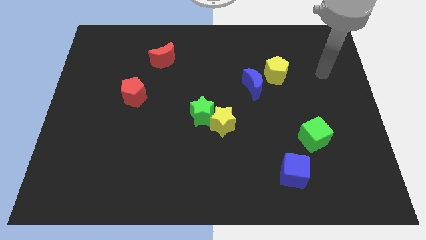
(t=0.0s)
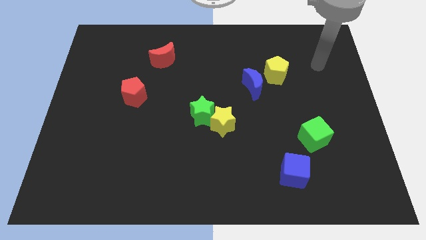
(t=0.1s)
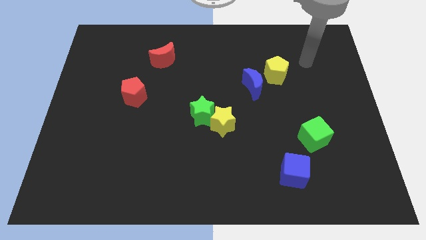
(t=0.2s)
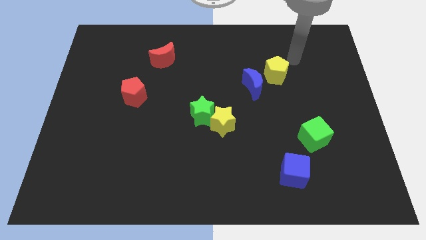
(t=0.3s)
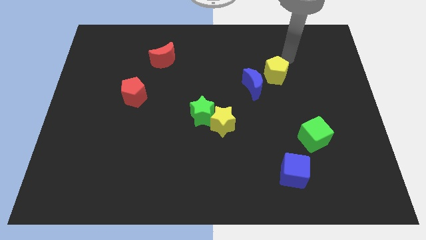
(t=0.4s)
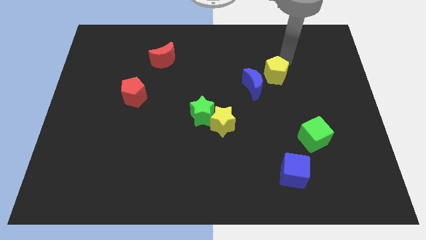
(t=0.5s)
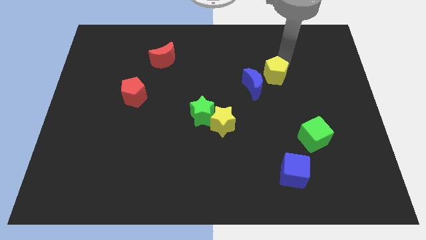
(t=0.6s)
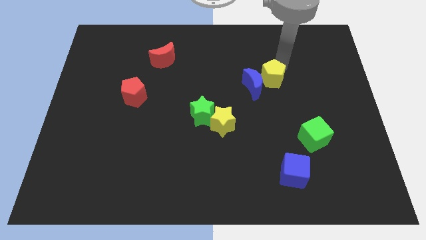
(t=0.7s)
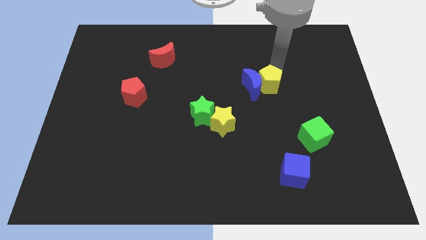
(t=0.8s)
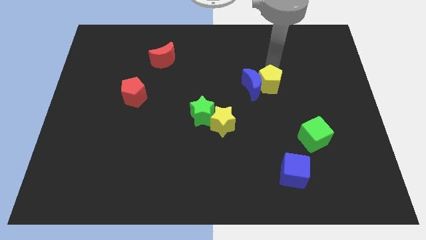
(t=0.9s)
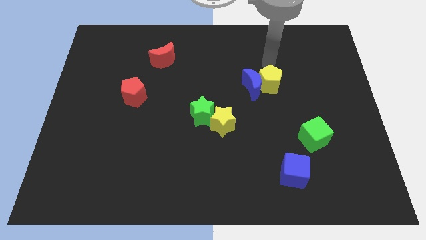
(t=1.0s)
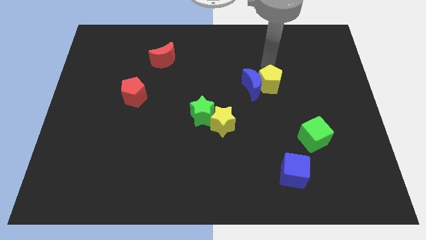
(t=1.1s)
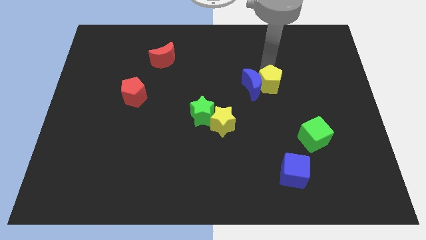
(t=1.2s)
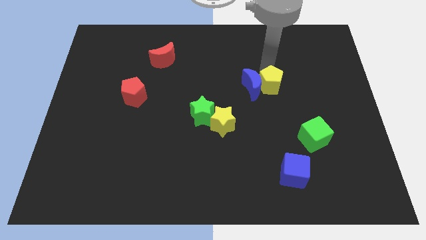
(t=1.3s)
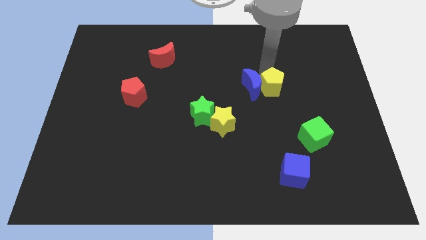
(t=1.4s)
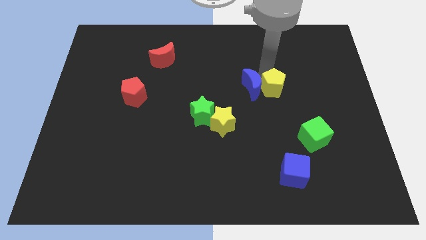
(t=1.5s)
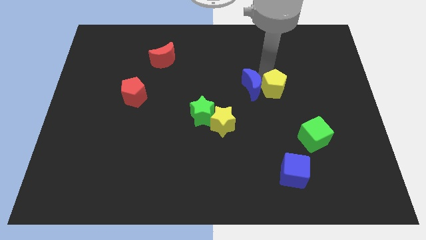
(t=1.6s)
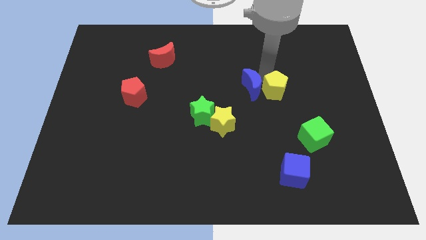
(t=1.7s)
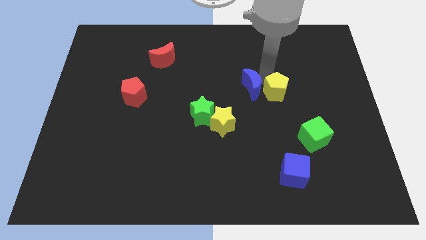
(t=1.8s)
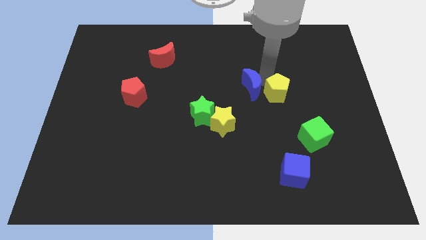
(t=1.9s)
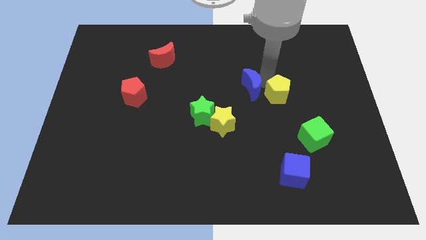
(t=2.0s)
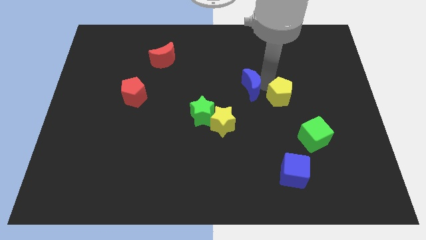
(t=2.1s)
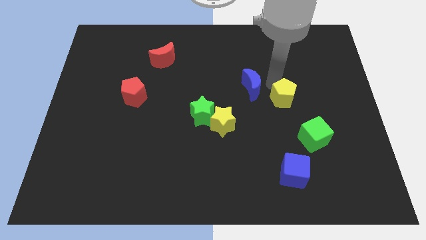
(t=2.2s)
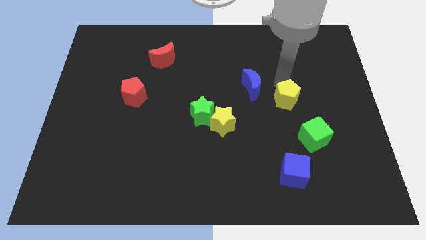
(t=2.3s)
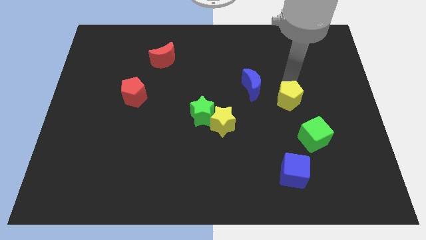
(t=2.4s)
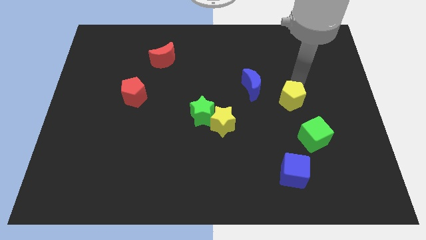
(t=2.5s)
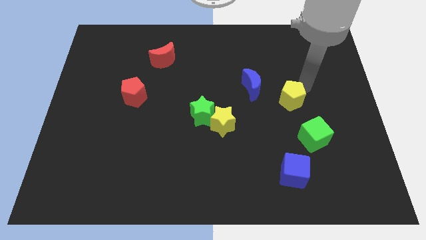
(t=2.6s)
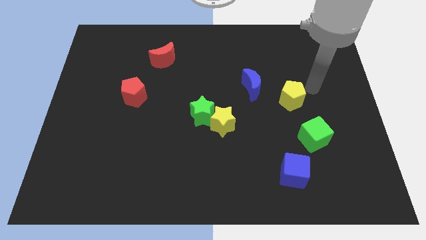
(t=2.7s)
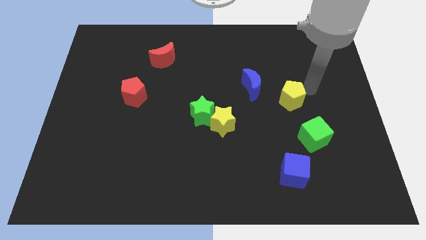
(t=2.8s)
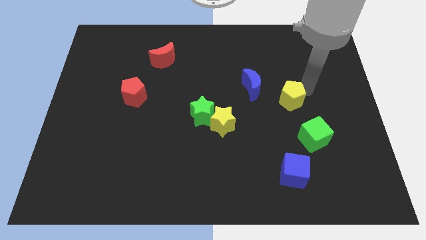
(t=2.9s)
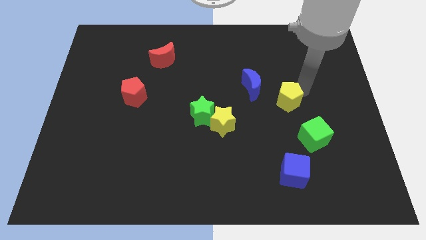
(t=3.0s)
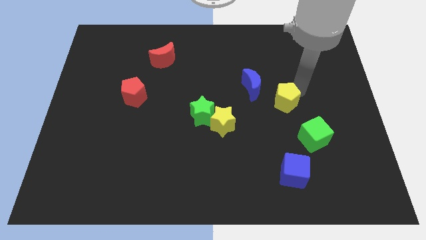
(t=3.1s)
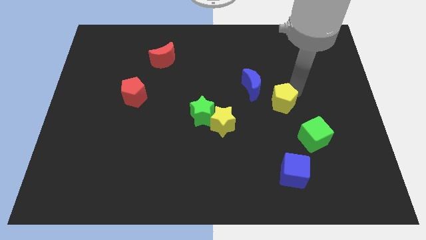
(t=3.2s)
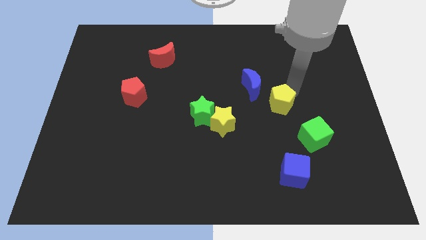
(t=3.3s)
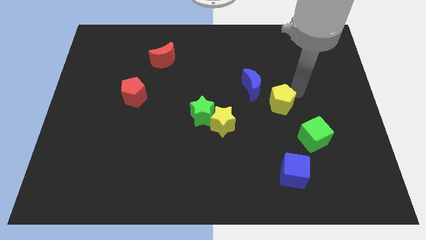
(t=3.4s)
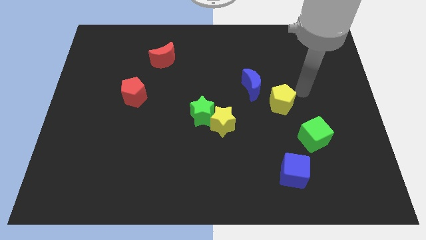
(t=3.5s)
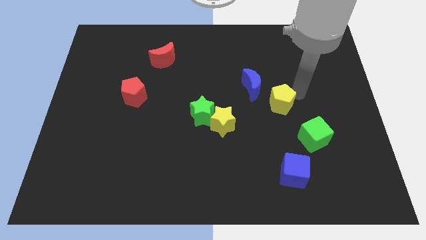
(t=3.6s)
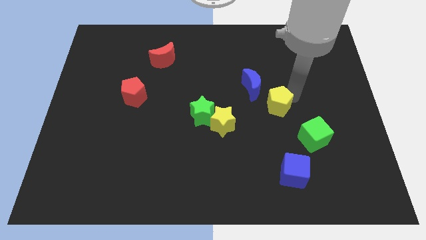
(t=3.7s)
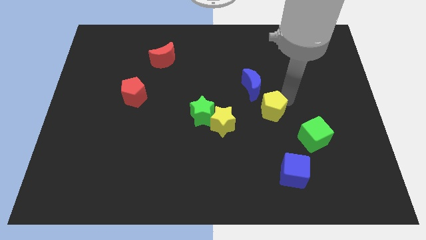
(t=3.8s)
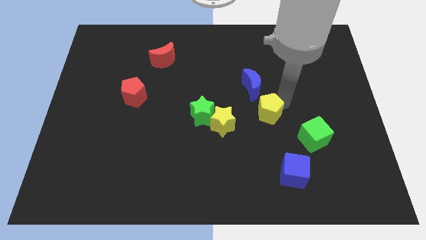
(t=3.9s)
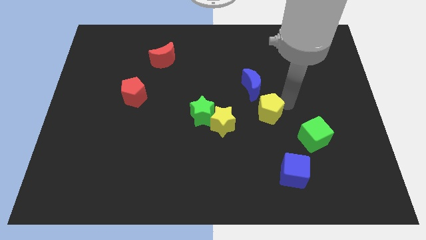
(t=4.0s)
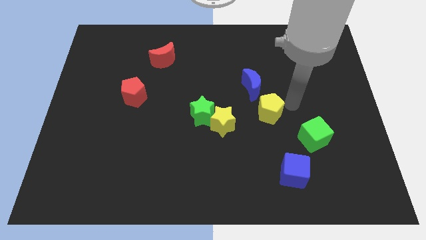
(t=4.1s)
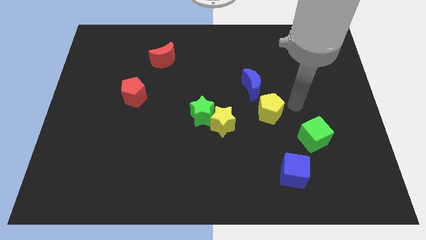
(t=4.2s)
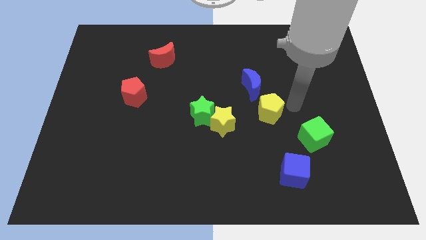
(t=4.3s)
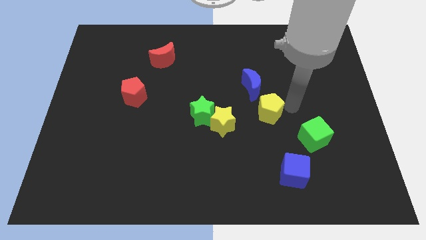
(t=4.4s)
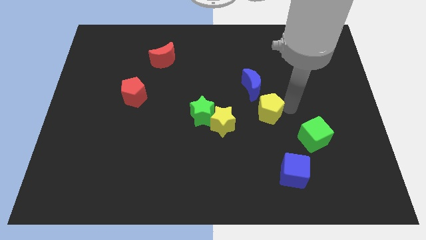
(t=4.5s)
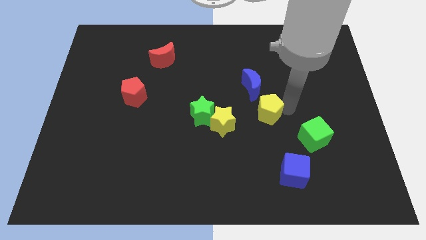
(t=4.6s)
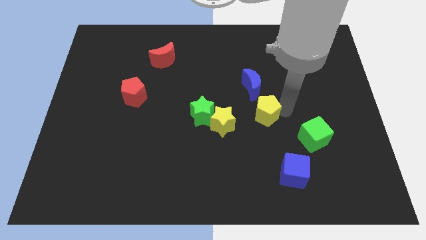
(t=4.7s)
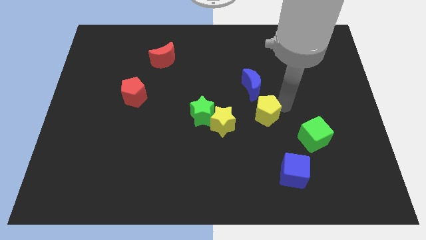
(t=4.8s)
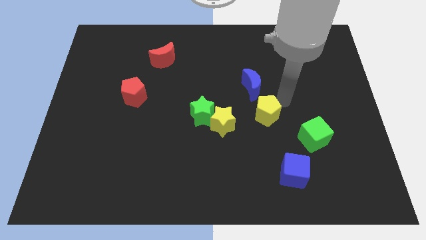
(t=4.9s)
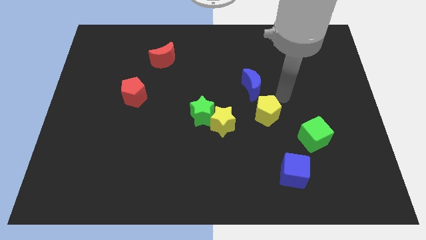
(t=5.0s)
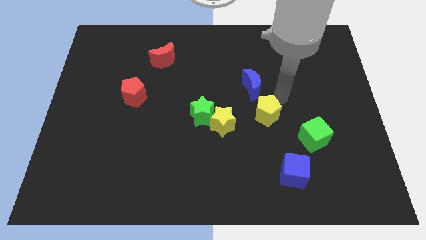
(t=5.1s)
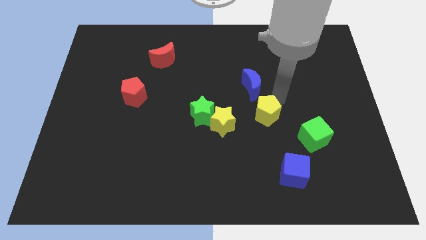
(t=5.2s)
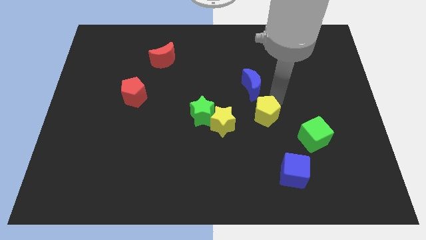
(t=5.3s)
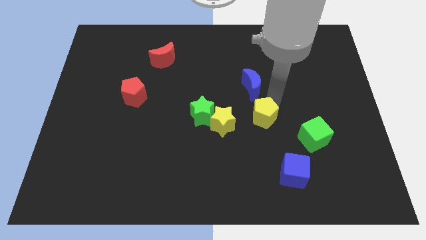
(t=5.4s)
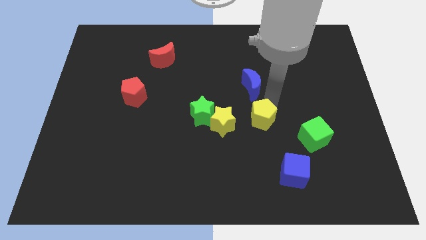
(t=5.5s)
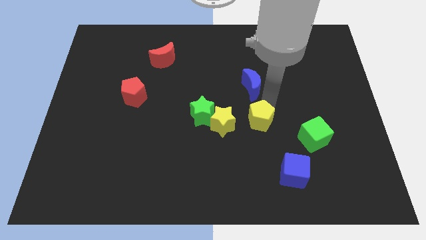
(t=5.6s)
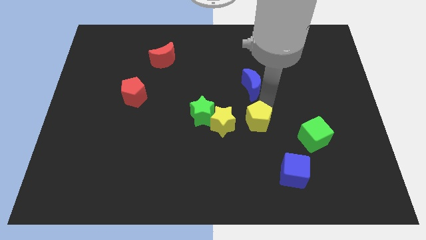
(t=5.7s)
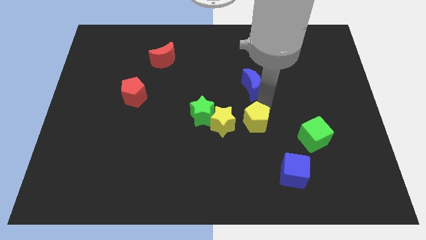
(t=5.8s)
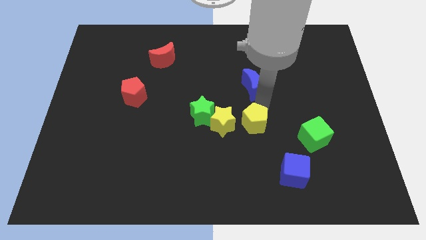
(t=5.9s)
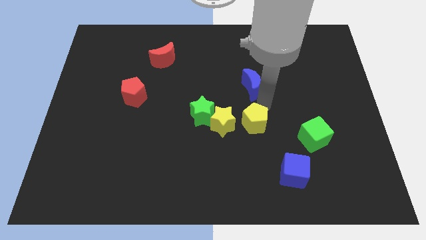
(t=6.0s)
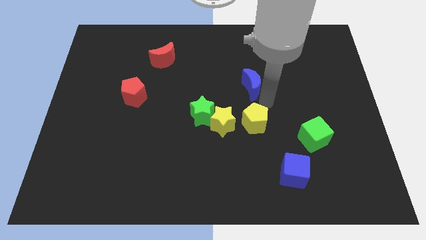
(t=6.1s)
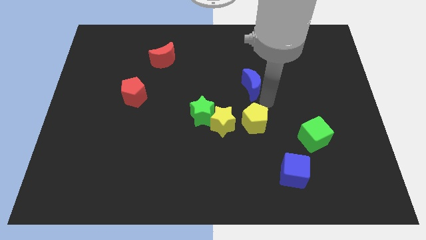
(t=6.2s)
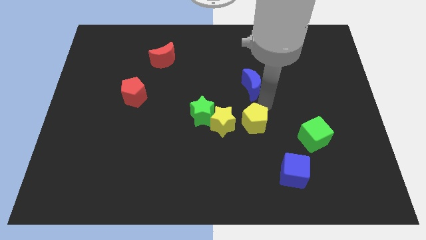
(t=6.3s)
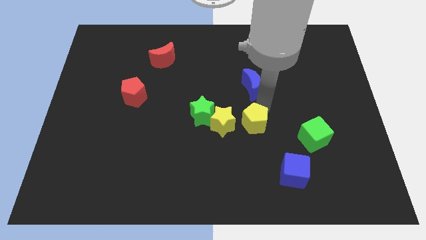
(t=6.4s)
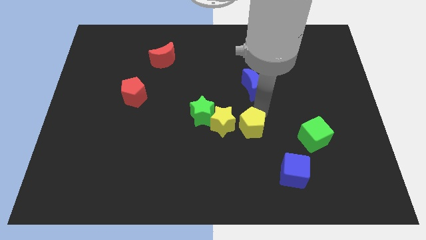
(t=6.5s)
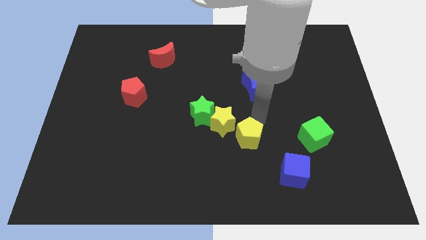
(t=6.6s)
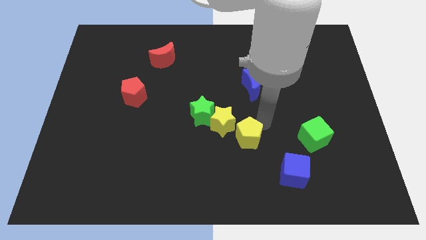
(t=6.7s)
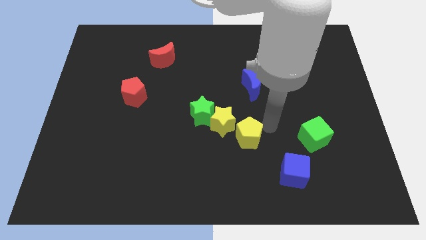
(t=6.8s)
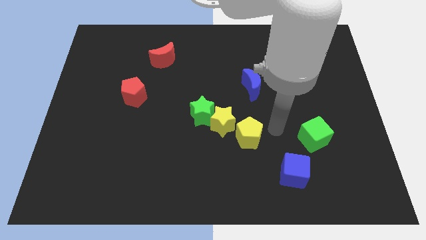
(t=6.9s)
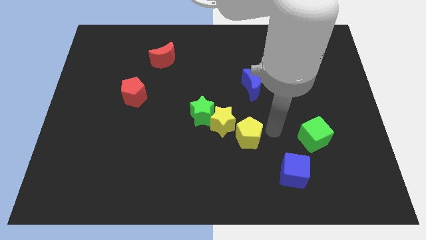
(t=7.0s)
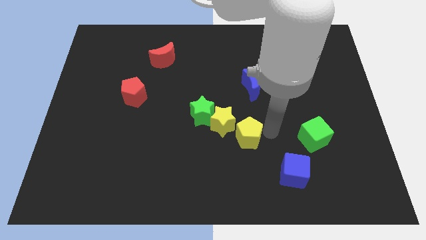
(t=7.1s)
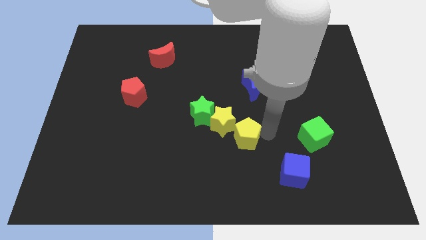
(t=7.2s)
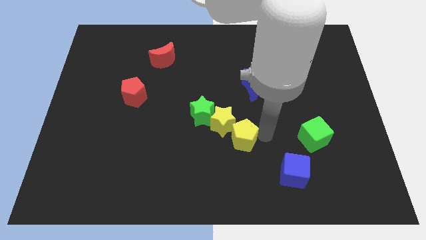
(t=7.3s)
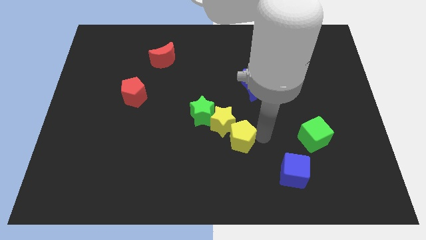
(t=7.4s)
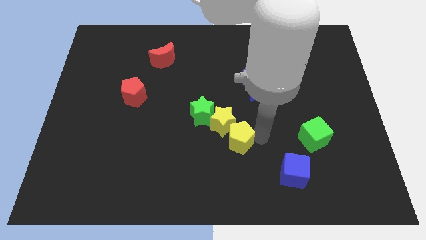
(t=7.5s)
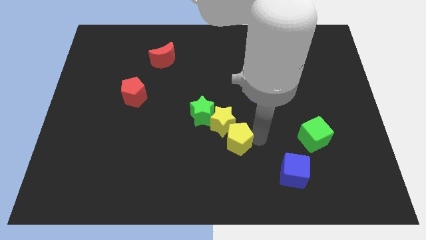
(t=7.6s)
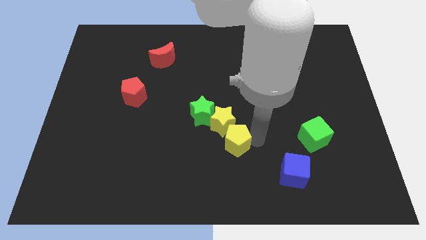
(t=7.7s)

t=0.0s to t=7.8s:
move the yellow pentagon downwards and left diagonally

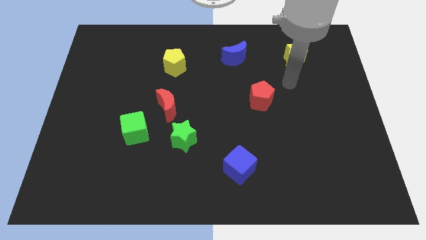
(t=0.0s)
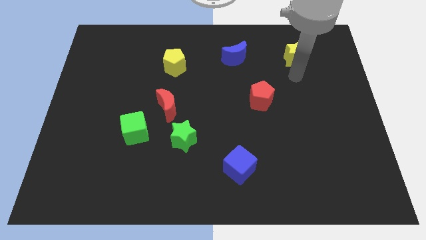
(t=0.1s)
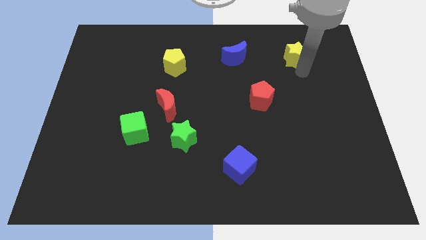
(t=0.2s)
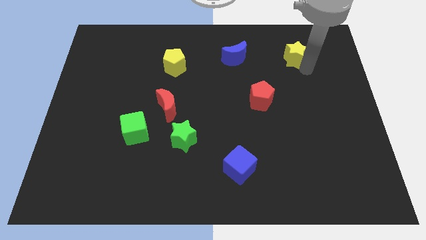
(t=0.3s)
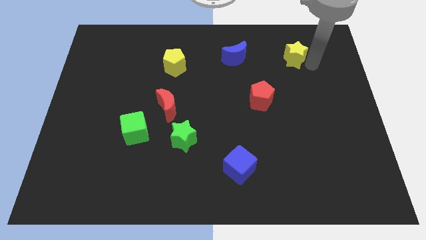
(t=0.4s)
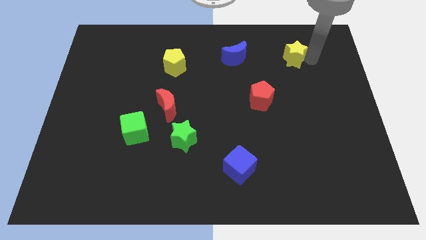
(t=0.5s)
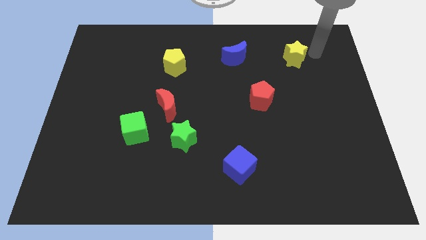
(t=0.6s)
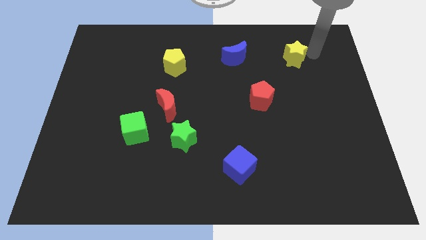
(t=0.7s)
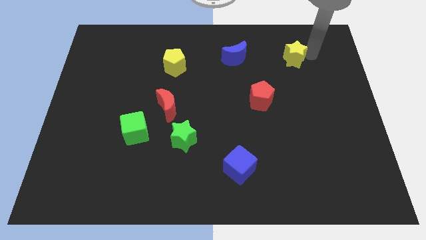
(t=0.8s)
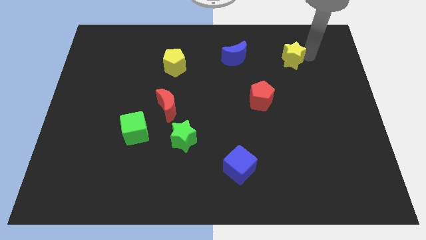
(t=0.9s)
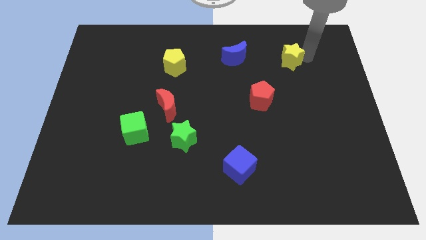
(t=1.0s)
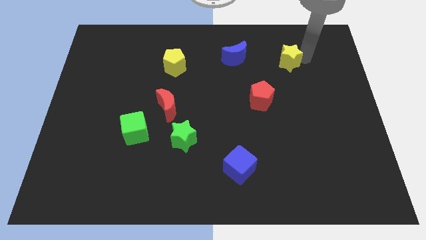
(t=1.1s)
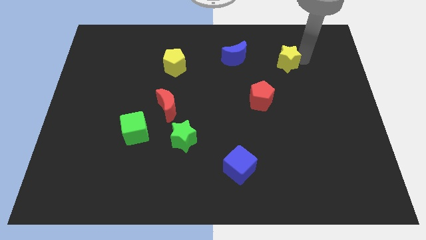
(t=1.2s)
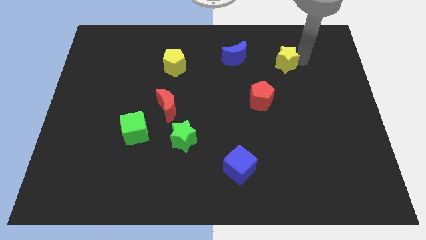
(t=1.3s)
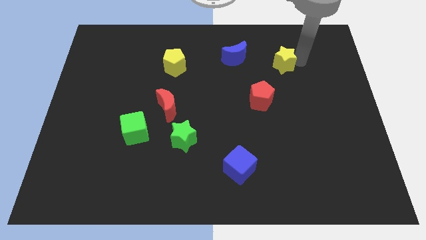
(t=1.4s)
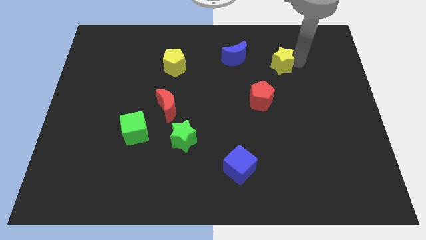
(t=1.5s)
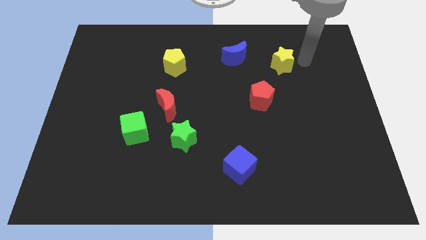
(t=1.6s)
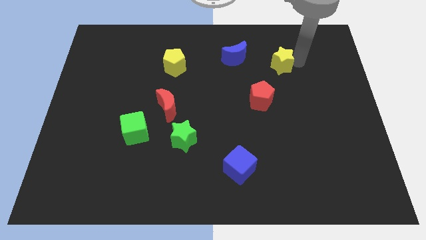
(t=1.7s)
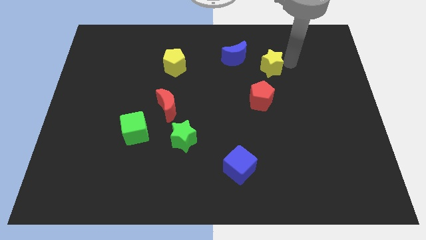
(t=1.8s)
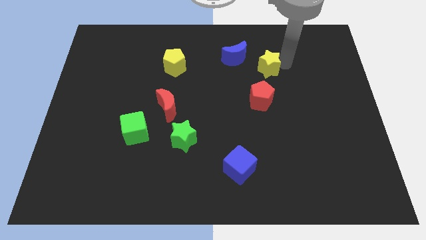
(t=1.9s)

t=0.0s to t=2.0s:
push the yellow star slightly to the left
